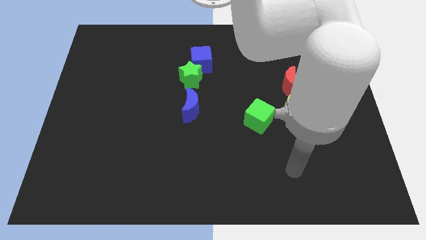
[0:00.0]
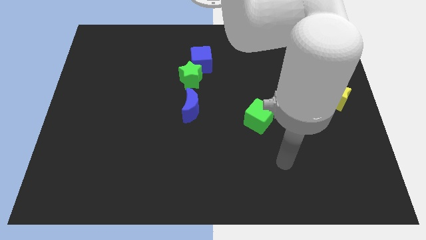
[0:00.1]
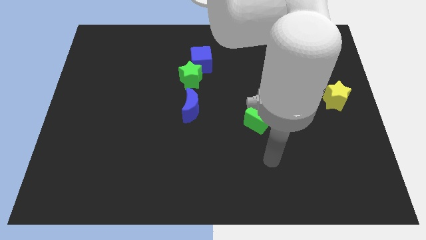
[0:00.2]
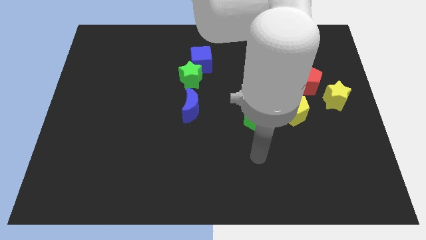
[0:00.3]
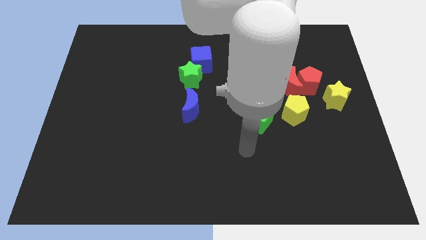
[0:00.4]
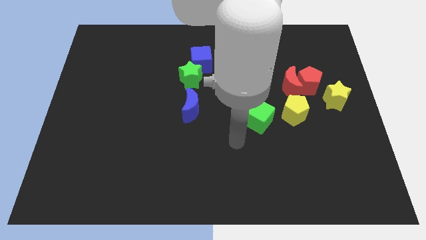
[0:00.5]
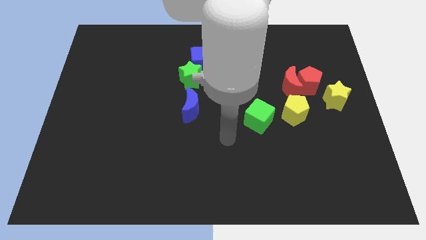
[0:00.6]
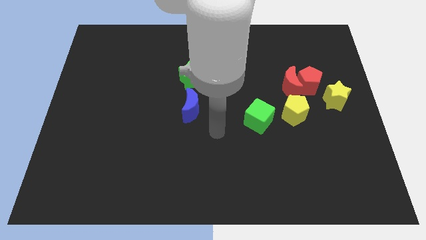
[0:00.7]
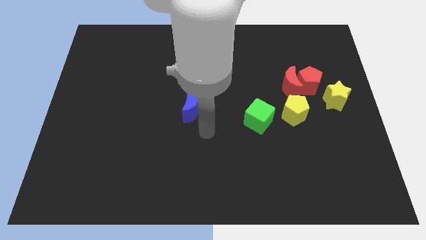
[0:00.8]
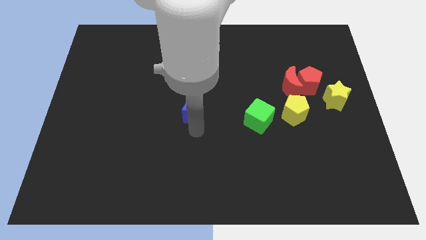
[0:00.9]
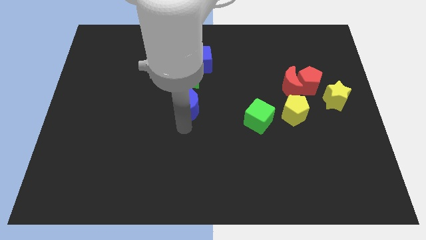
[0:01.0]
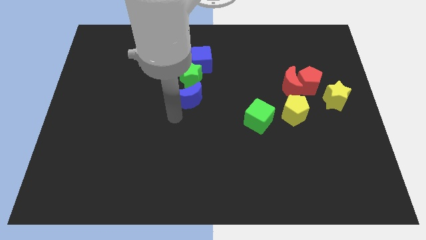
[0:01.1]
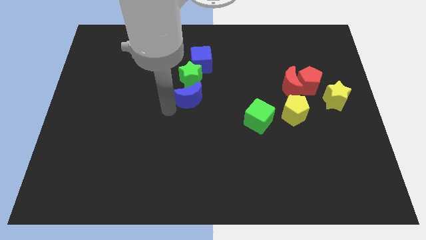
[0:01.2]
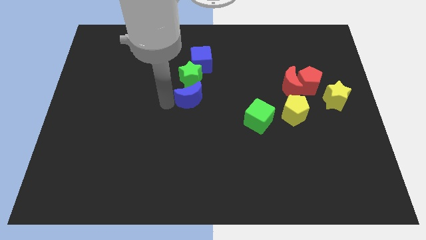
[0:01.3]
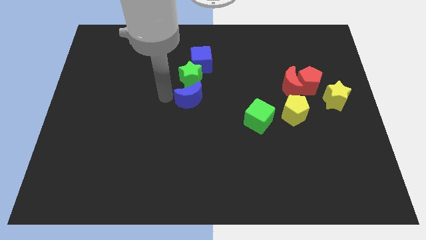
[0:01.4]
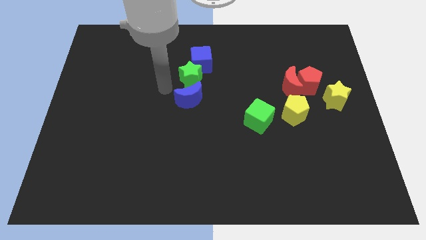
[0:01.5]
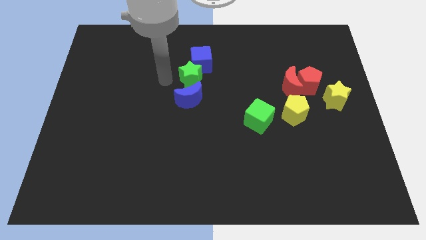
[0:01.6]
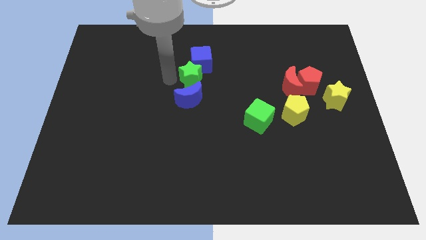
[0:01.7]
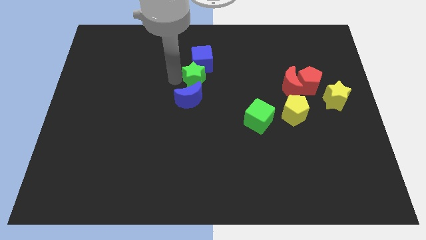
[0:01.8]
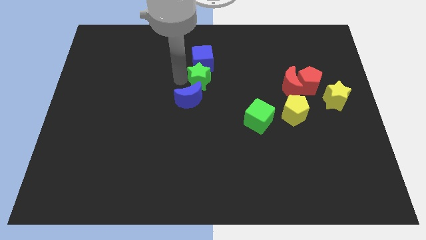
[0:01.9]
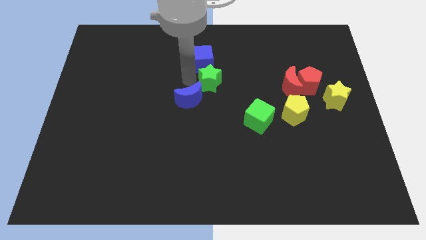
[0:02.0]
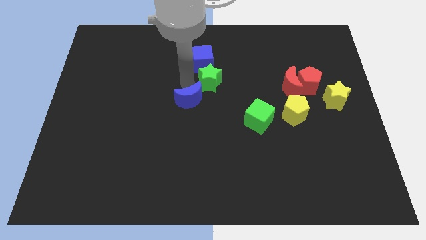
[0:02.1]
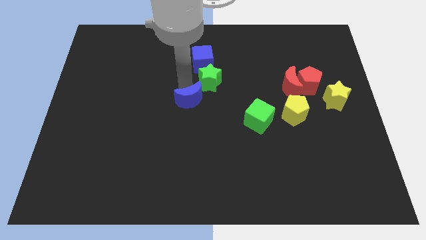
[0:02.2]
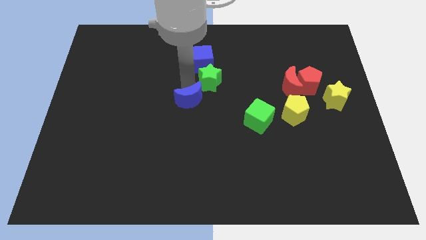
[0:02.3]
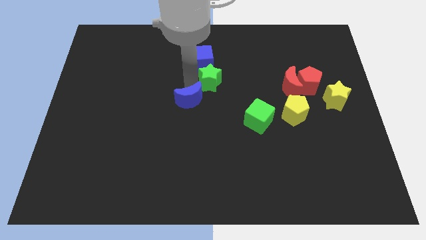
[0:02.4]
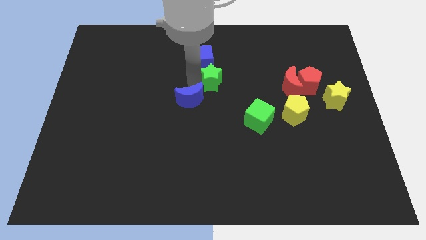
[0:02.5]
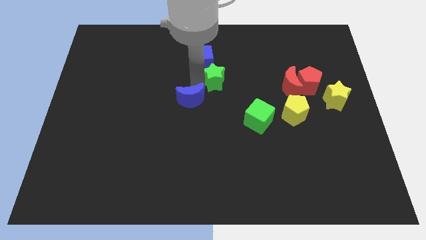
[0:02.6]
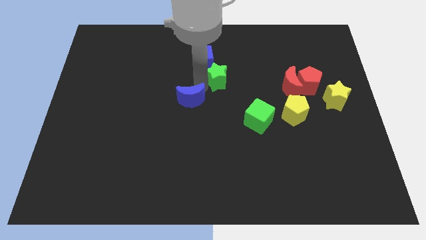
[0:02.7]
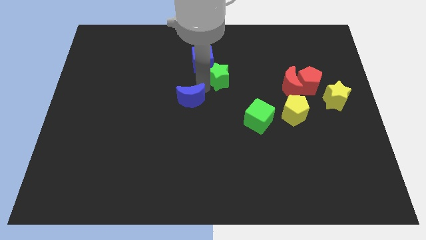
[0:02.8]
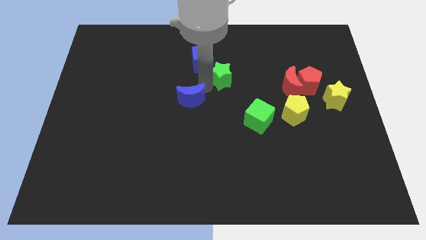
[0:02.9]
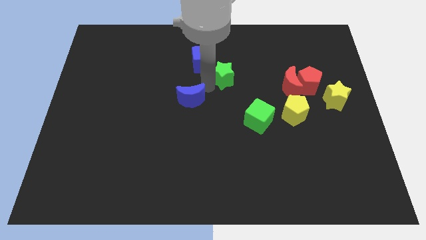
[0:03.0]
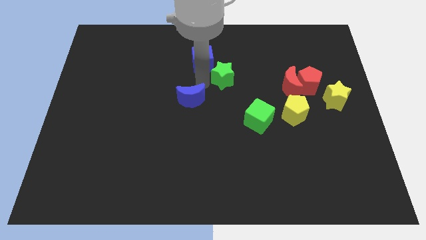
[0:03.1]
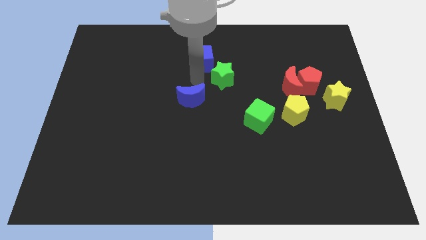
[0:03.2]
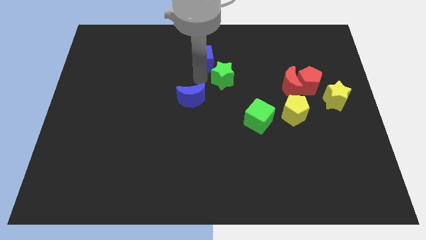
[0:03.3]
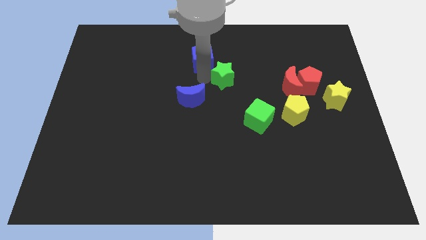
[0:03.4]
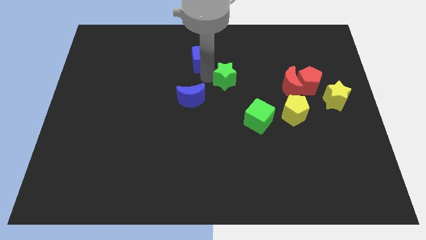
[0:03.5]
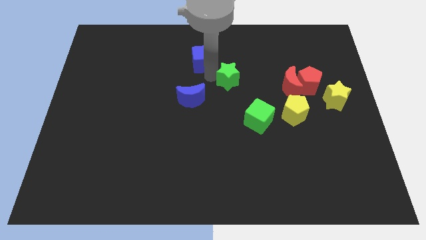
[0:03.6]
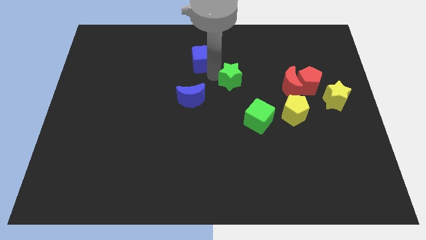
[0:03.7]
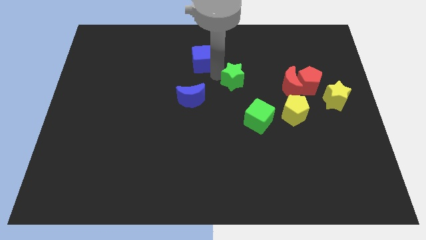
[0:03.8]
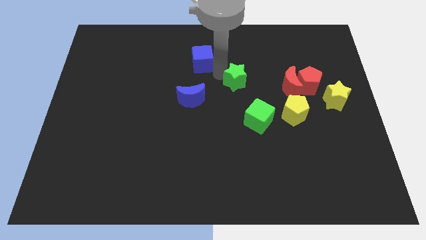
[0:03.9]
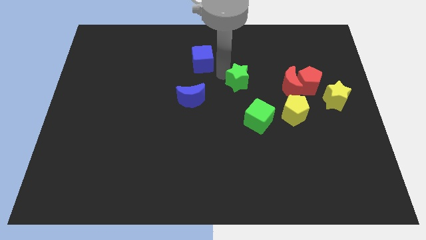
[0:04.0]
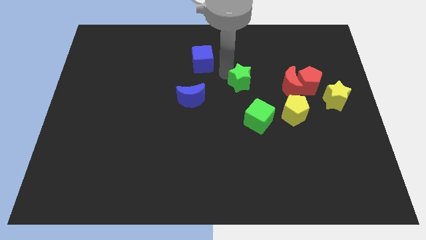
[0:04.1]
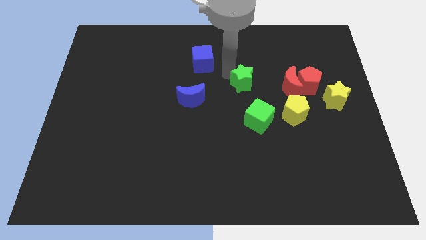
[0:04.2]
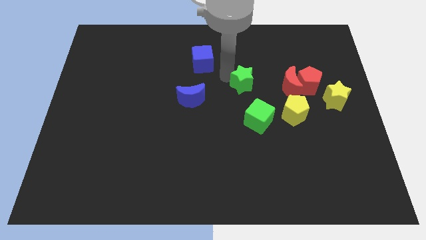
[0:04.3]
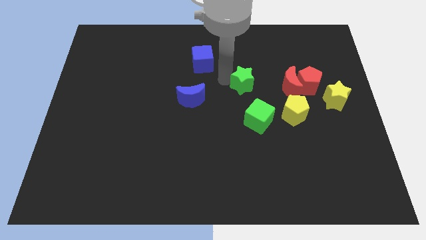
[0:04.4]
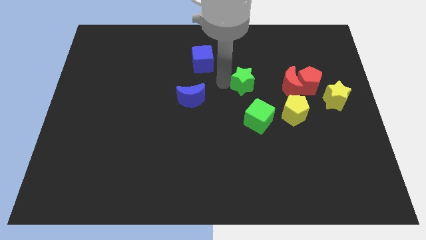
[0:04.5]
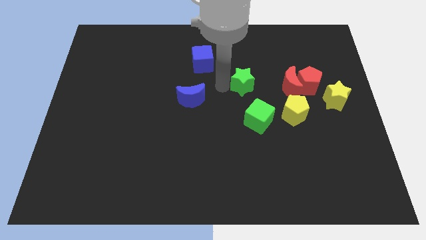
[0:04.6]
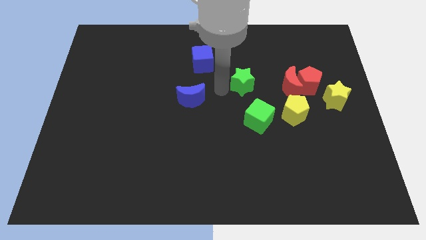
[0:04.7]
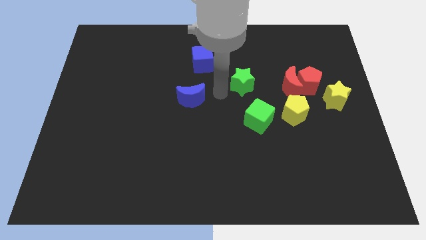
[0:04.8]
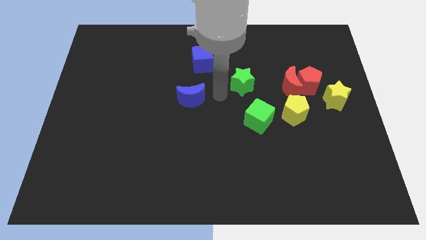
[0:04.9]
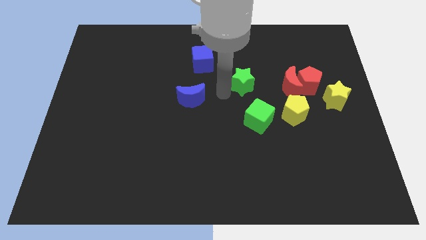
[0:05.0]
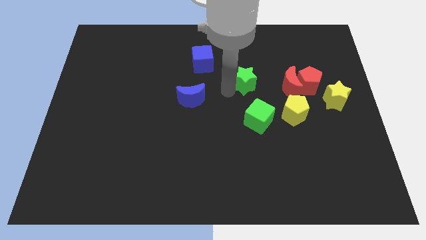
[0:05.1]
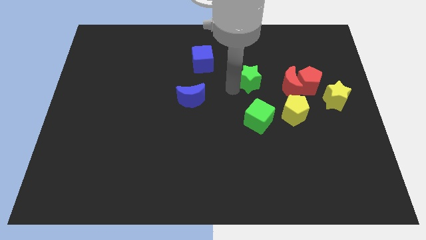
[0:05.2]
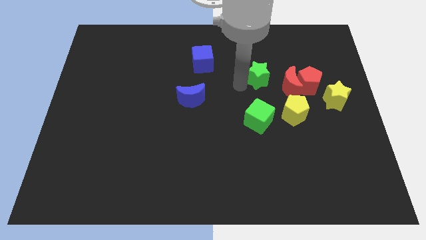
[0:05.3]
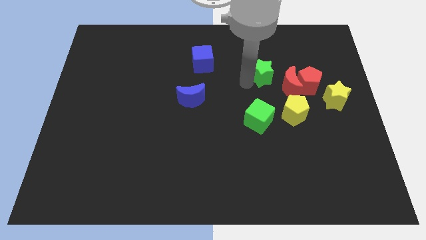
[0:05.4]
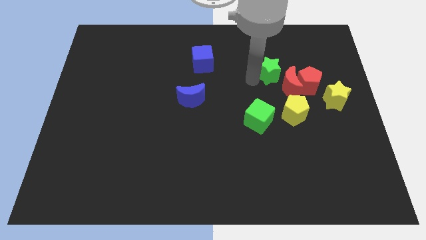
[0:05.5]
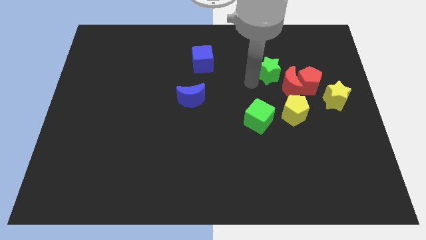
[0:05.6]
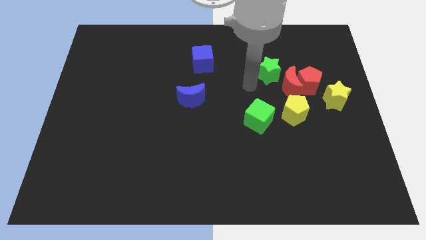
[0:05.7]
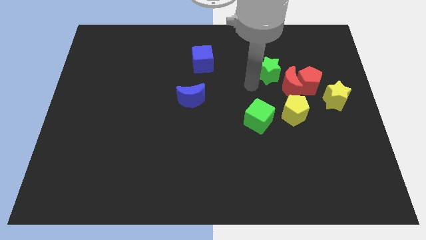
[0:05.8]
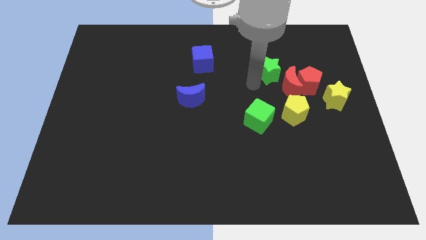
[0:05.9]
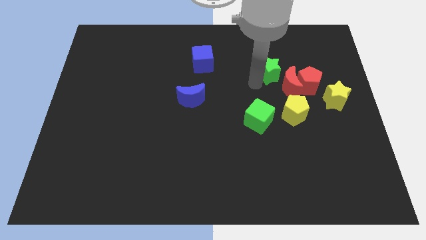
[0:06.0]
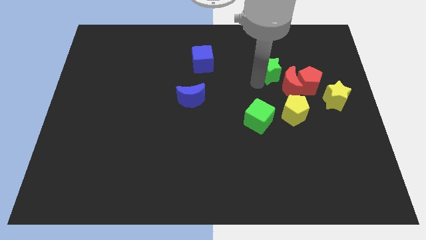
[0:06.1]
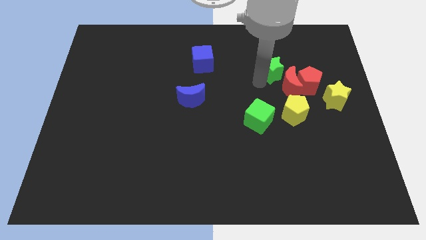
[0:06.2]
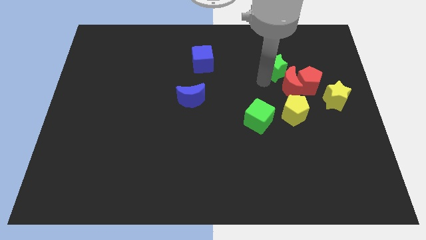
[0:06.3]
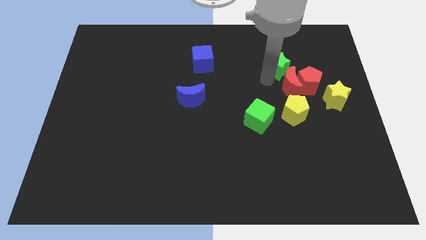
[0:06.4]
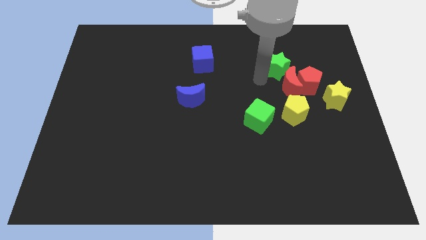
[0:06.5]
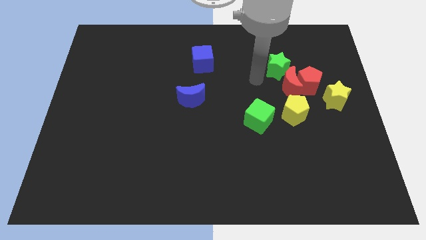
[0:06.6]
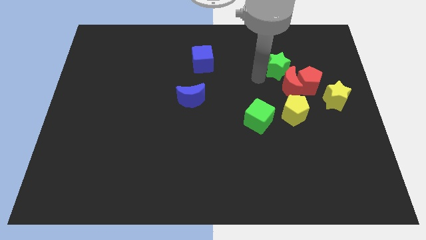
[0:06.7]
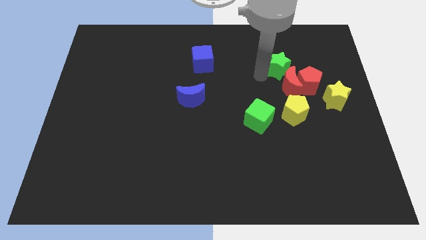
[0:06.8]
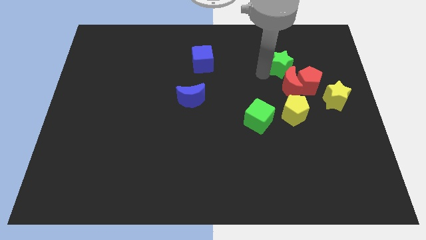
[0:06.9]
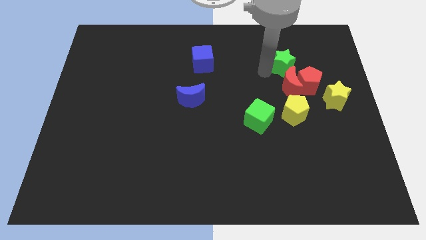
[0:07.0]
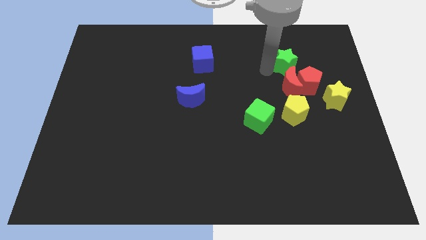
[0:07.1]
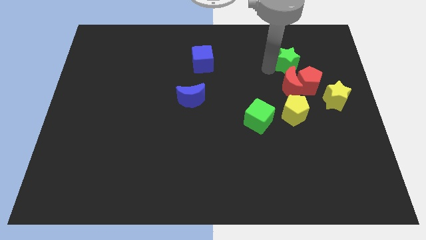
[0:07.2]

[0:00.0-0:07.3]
put the green star to the top side of the red pentagon
